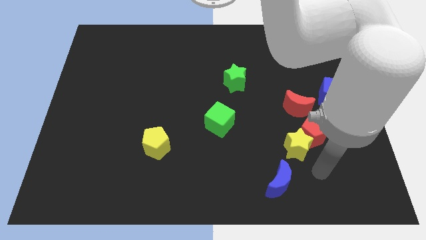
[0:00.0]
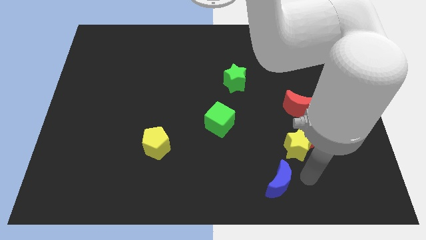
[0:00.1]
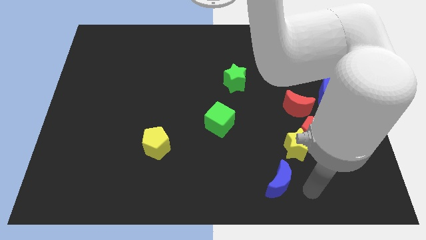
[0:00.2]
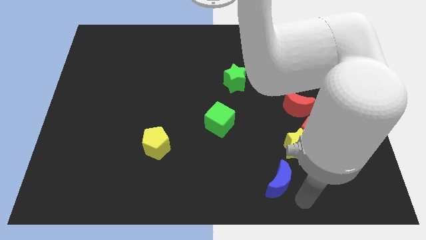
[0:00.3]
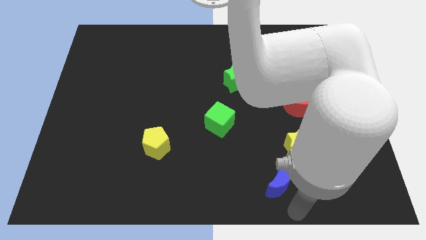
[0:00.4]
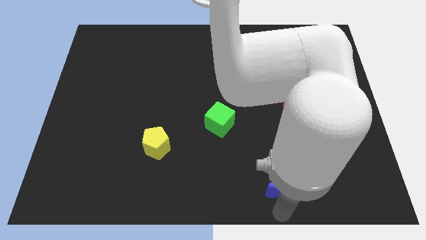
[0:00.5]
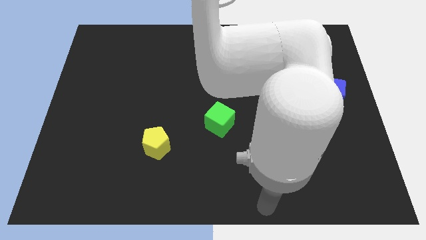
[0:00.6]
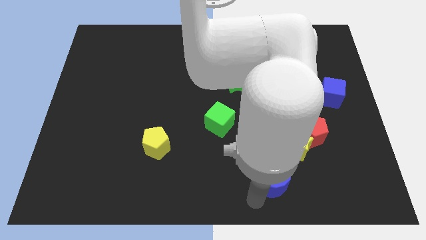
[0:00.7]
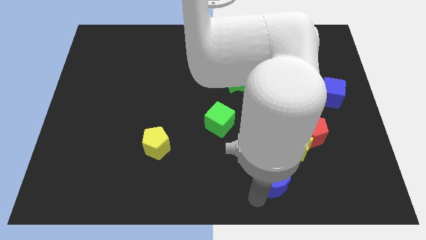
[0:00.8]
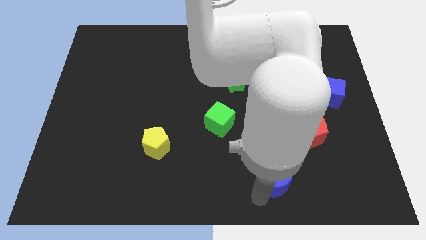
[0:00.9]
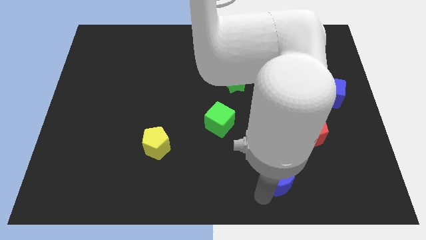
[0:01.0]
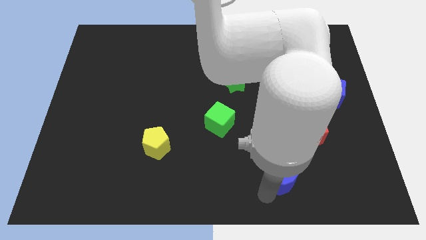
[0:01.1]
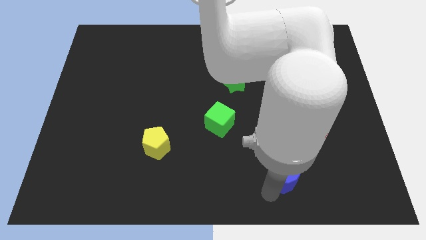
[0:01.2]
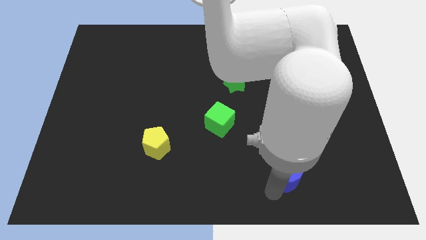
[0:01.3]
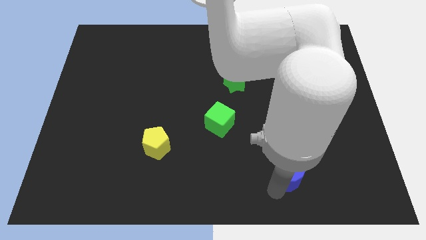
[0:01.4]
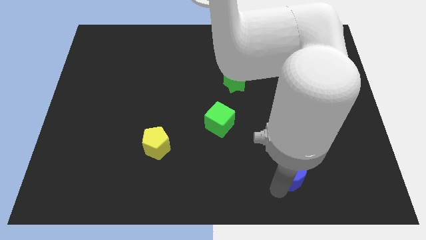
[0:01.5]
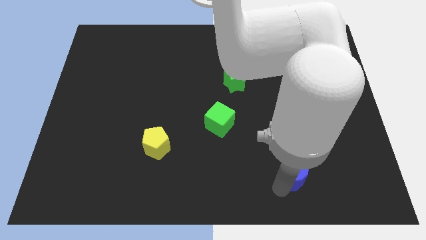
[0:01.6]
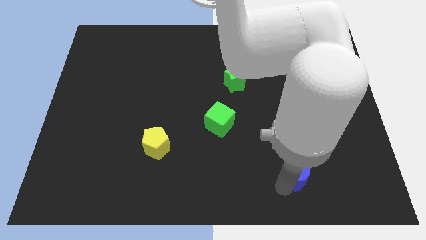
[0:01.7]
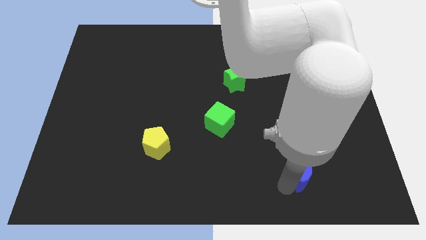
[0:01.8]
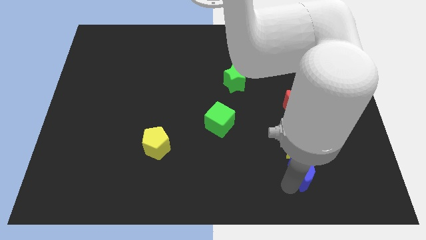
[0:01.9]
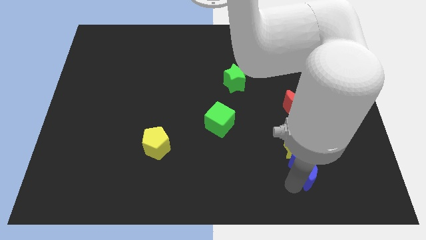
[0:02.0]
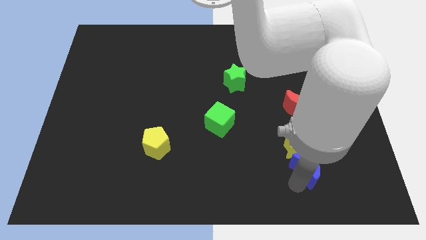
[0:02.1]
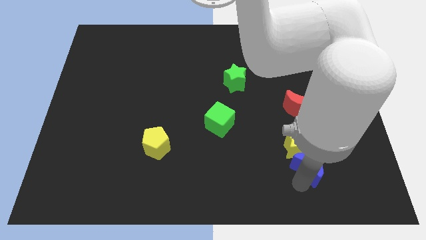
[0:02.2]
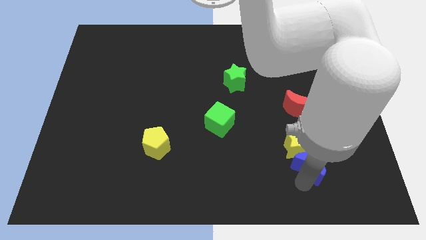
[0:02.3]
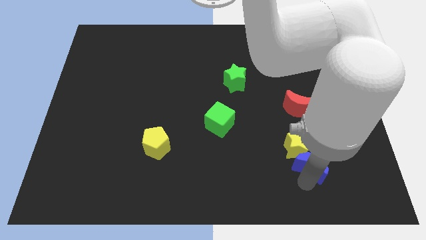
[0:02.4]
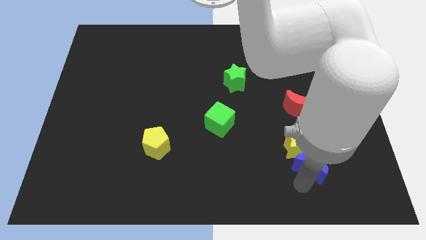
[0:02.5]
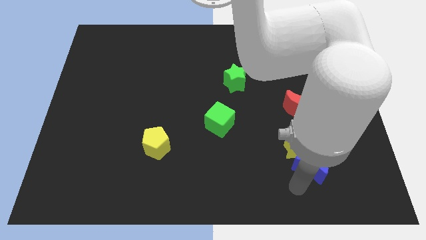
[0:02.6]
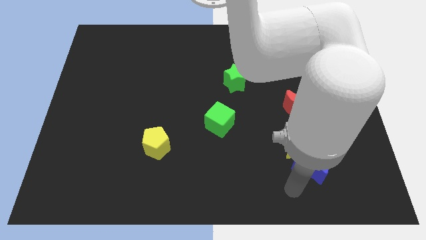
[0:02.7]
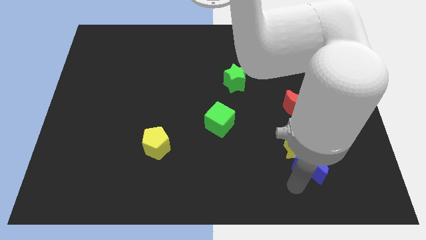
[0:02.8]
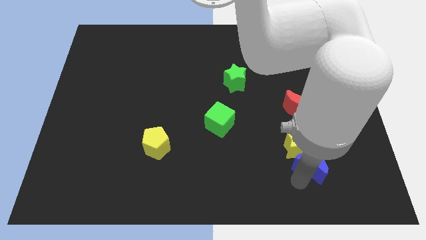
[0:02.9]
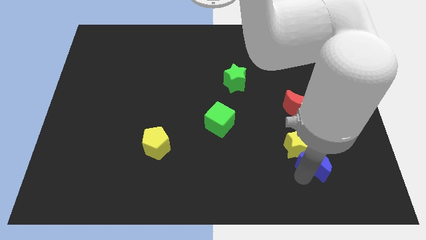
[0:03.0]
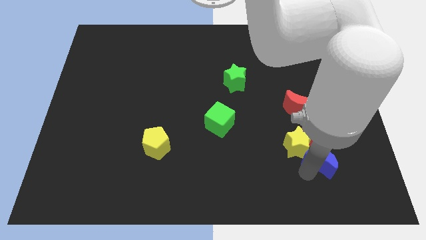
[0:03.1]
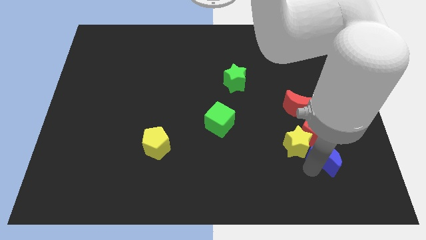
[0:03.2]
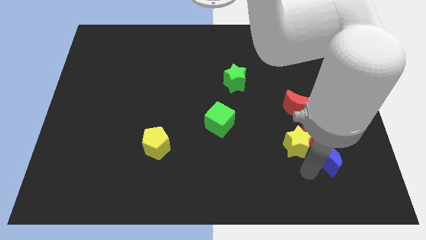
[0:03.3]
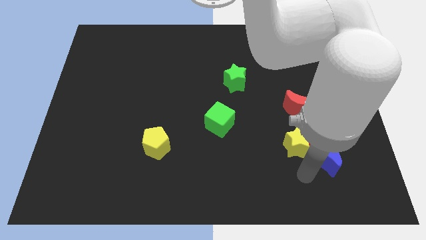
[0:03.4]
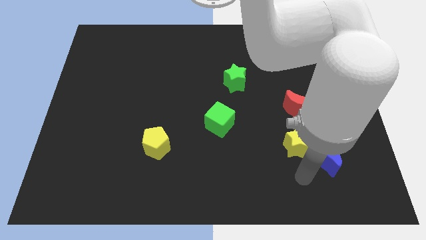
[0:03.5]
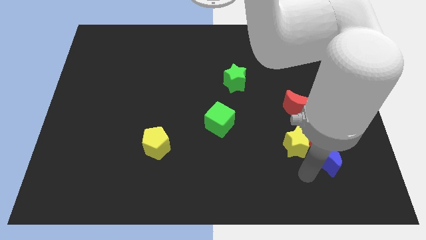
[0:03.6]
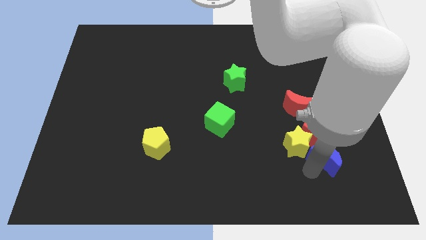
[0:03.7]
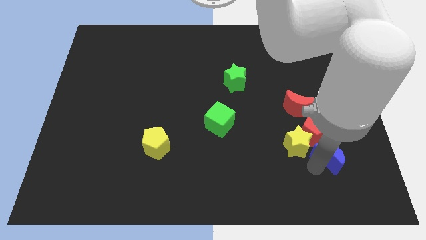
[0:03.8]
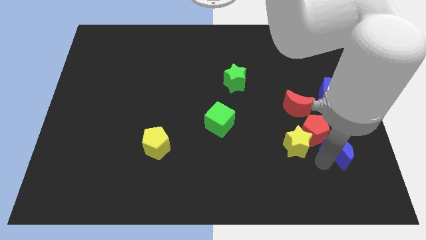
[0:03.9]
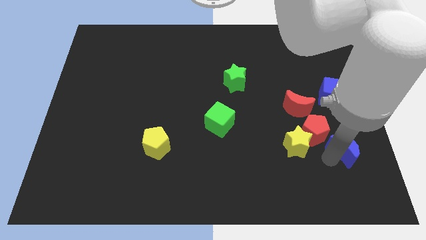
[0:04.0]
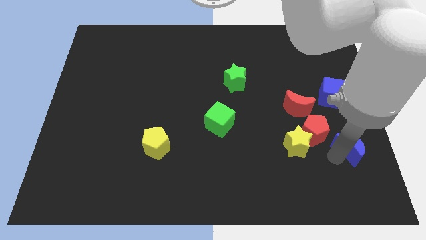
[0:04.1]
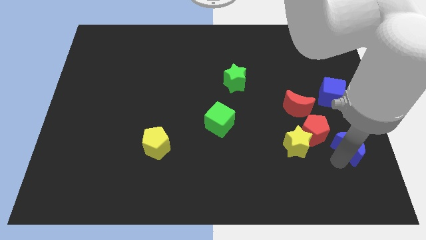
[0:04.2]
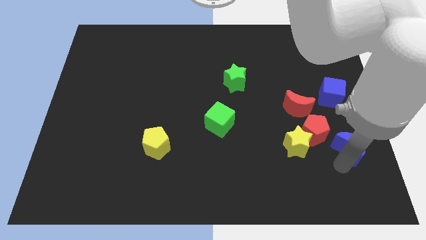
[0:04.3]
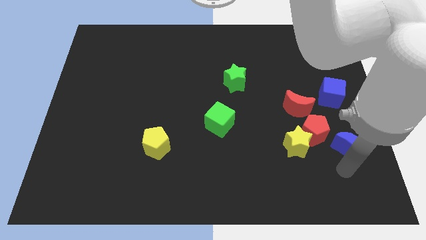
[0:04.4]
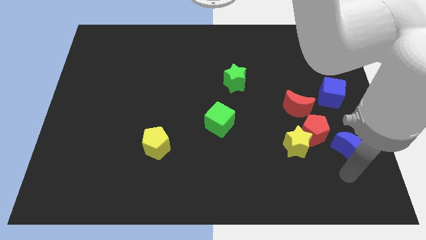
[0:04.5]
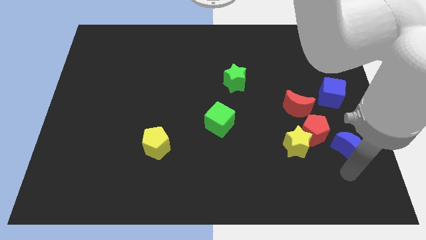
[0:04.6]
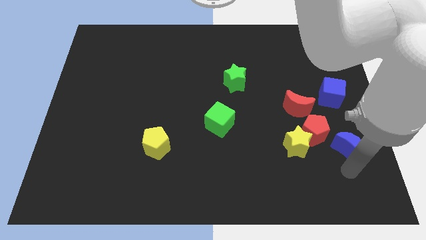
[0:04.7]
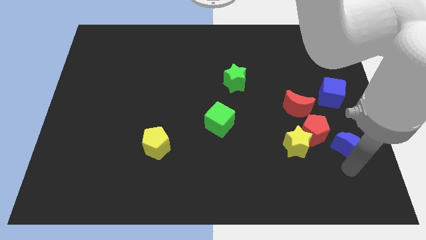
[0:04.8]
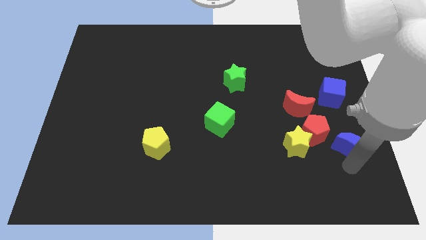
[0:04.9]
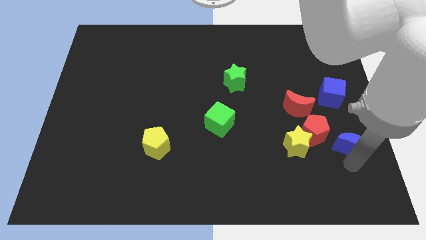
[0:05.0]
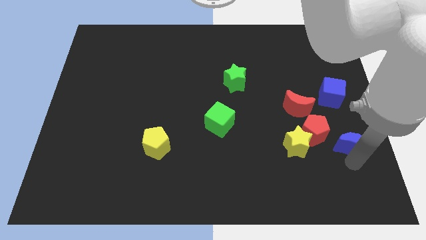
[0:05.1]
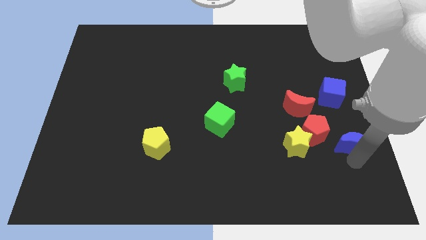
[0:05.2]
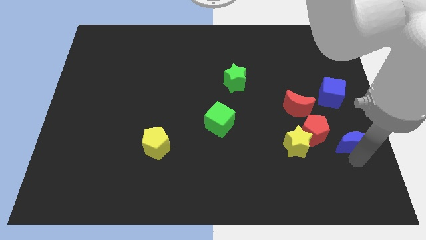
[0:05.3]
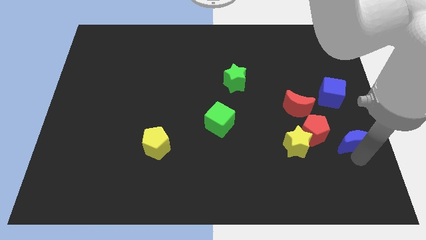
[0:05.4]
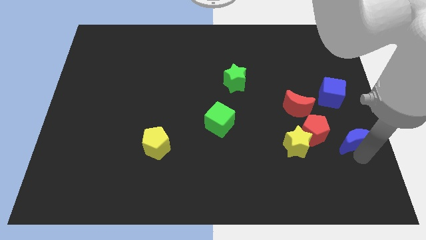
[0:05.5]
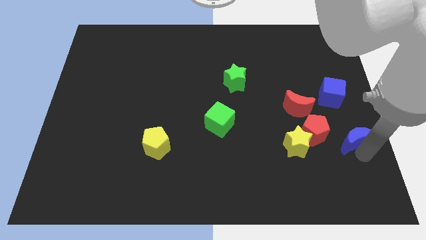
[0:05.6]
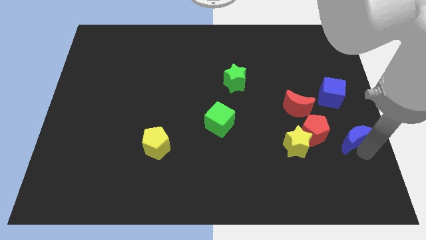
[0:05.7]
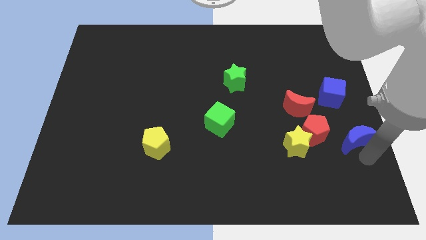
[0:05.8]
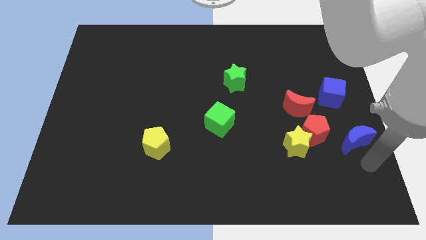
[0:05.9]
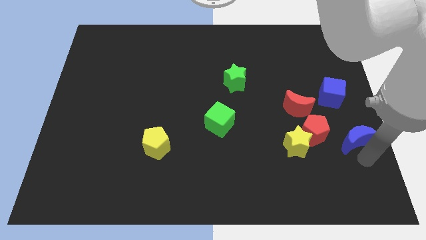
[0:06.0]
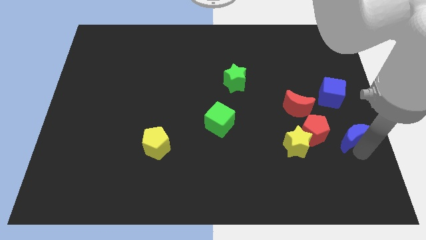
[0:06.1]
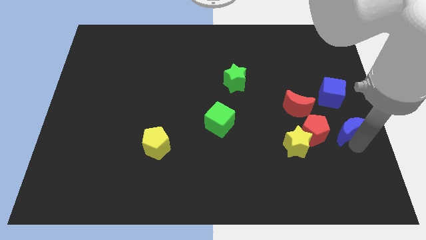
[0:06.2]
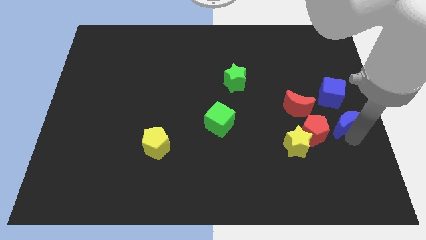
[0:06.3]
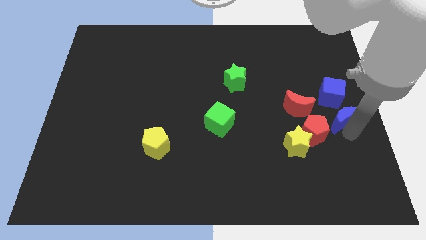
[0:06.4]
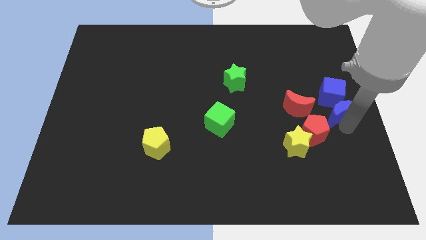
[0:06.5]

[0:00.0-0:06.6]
put the blue moon next to the blue cube

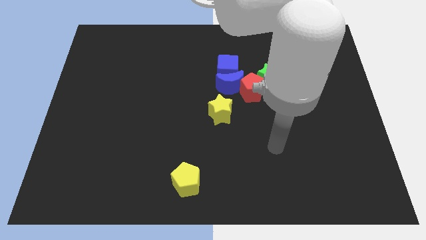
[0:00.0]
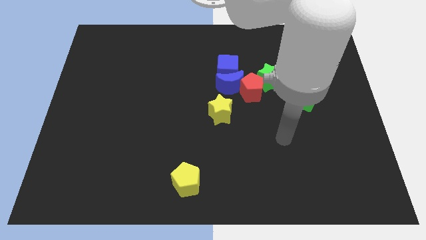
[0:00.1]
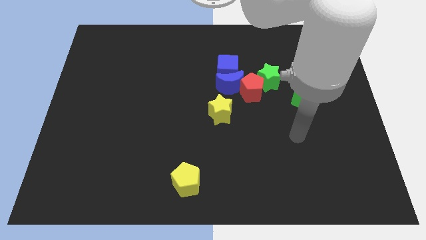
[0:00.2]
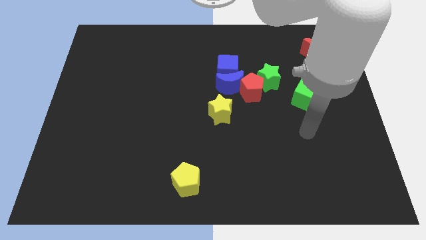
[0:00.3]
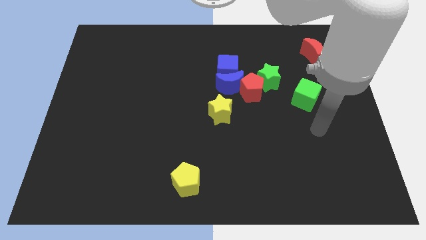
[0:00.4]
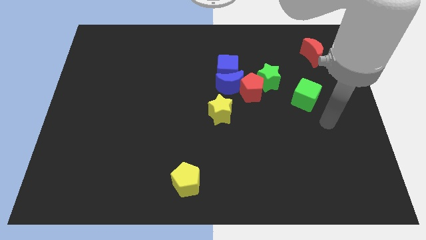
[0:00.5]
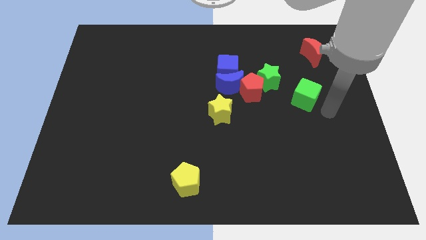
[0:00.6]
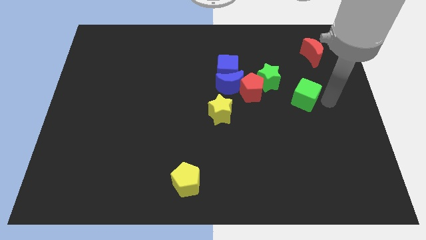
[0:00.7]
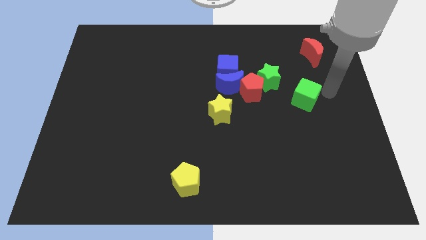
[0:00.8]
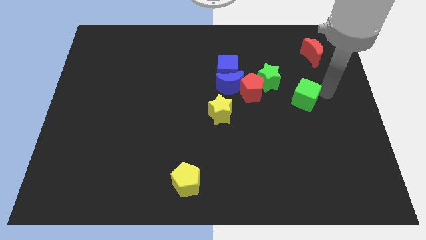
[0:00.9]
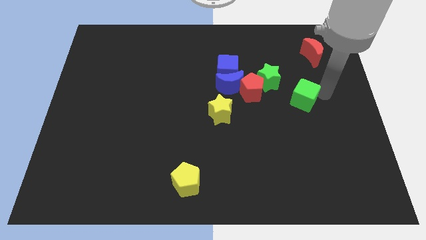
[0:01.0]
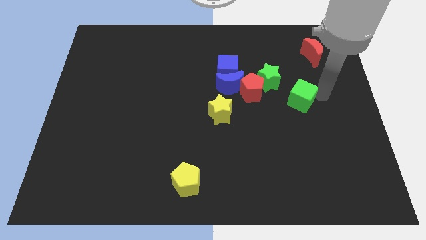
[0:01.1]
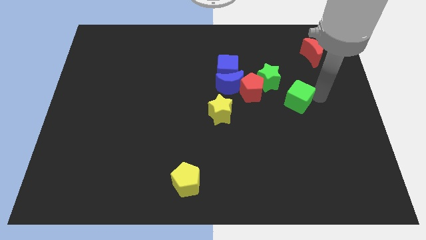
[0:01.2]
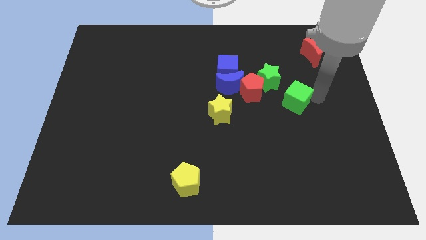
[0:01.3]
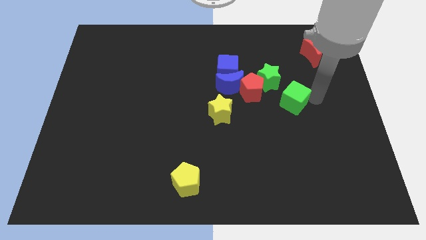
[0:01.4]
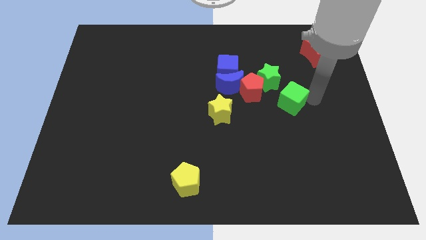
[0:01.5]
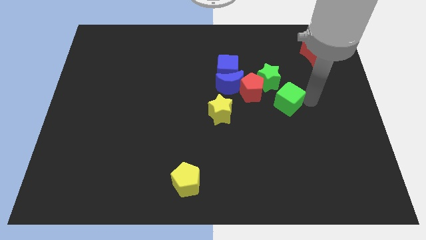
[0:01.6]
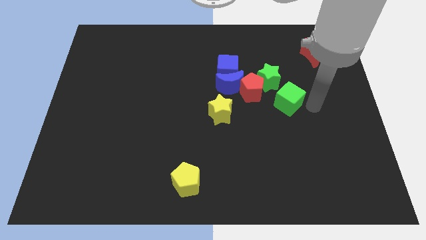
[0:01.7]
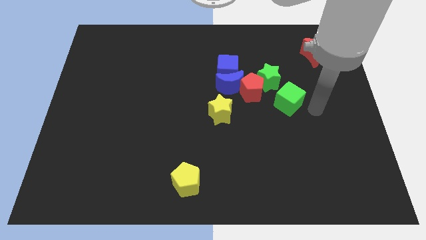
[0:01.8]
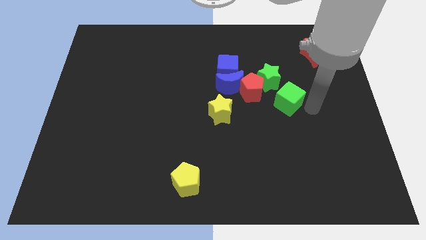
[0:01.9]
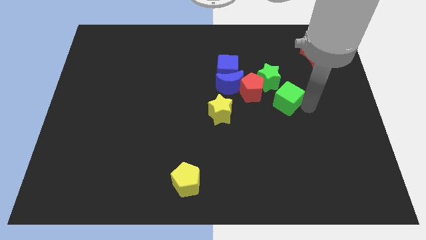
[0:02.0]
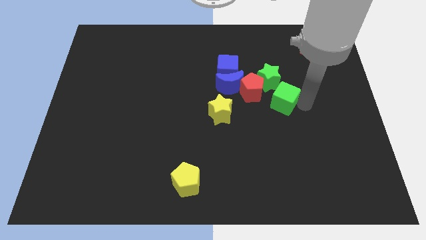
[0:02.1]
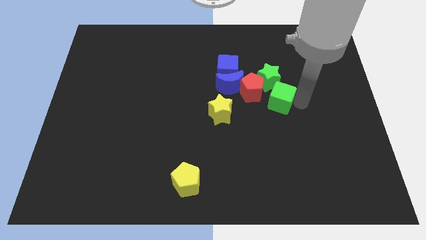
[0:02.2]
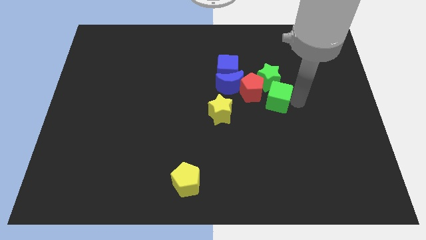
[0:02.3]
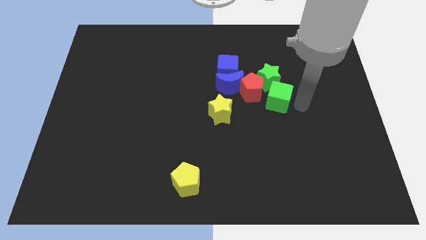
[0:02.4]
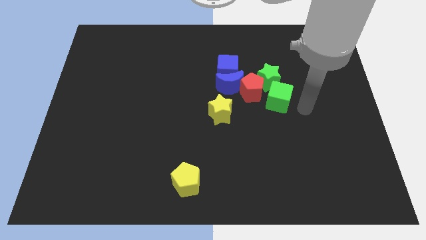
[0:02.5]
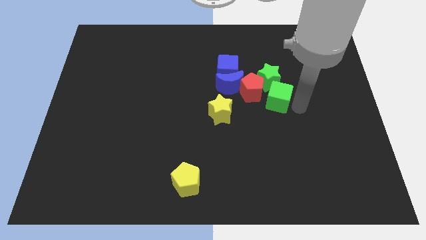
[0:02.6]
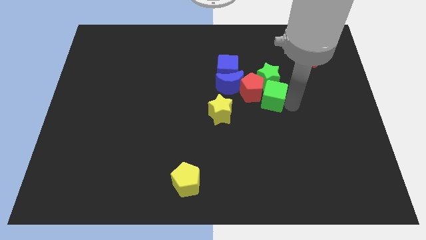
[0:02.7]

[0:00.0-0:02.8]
slide the green cube next to the red pentagon
